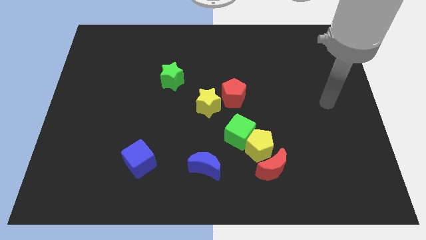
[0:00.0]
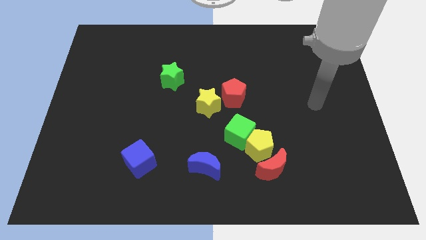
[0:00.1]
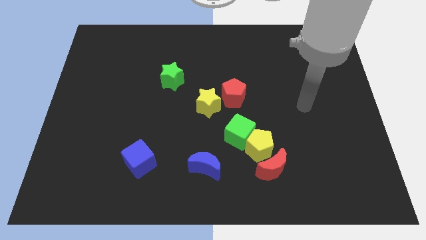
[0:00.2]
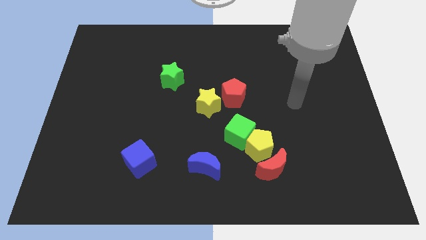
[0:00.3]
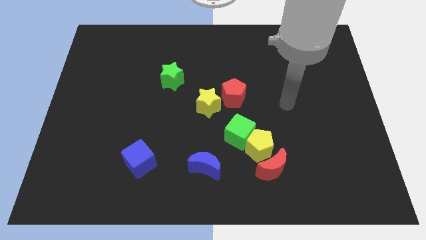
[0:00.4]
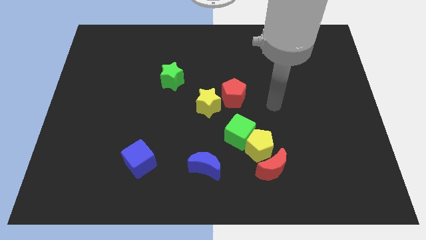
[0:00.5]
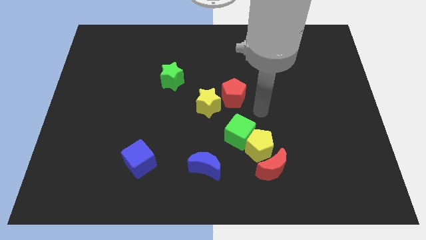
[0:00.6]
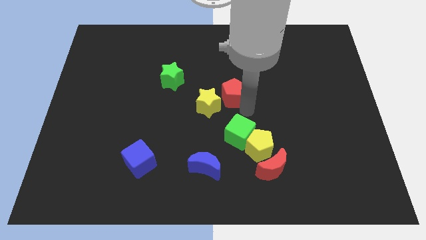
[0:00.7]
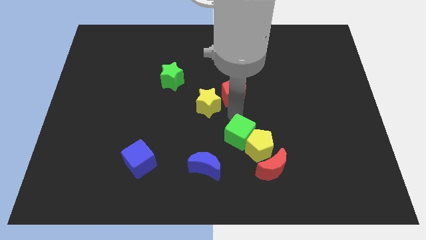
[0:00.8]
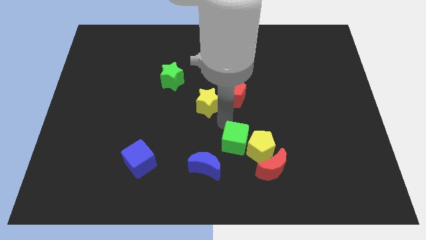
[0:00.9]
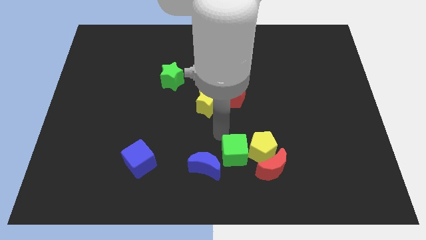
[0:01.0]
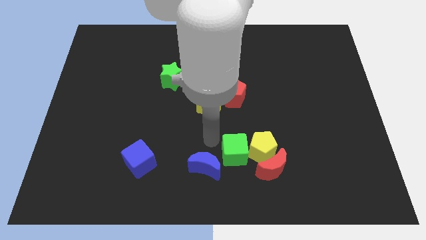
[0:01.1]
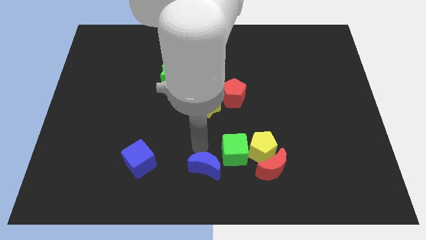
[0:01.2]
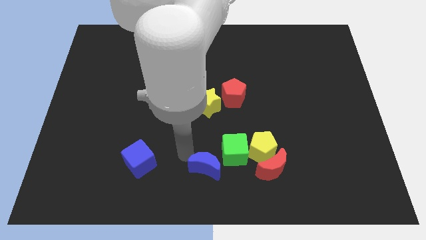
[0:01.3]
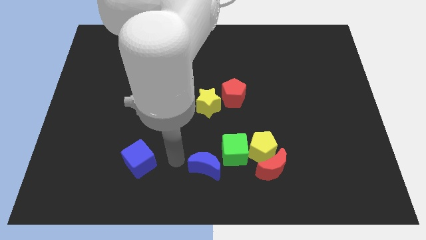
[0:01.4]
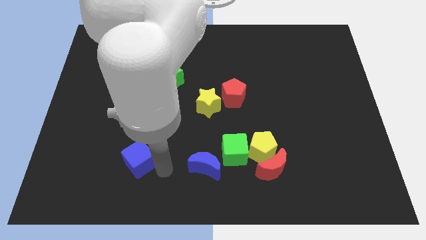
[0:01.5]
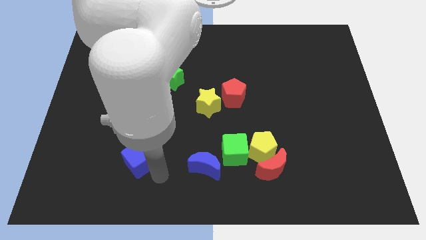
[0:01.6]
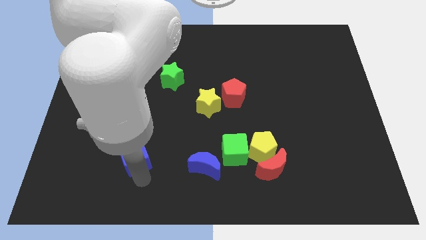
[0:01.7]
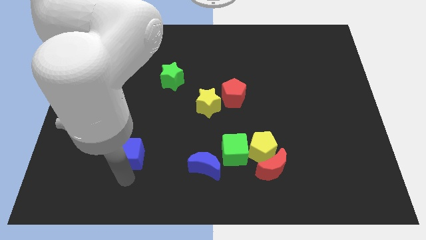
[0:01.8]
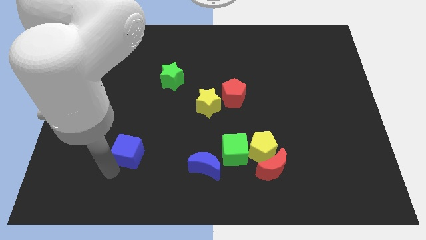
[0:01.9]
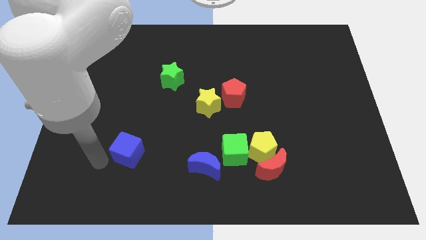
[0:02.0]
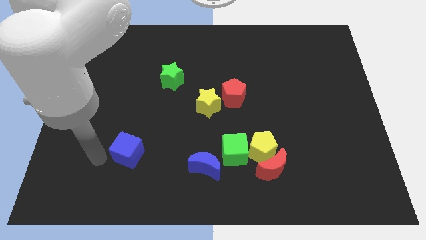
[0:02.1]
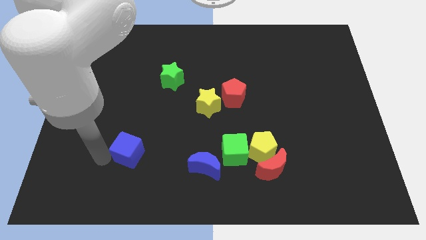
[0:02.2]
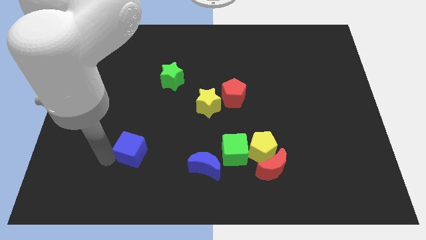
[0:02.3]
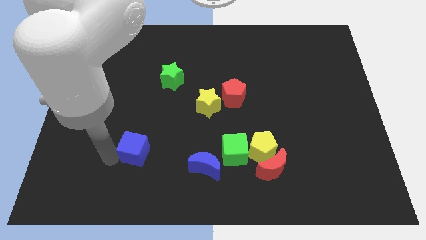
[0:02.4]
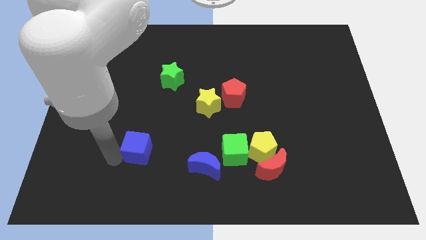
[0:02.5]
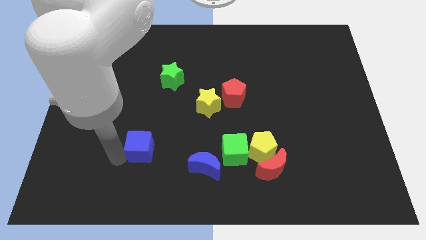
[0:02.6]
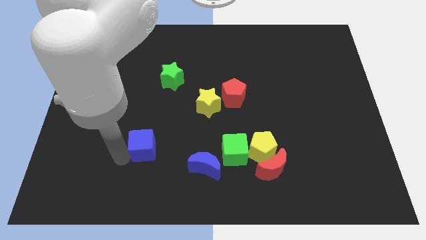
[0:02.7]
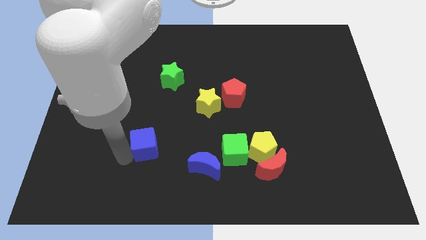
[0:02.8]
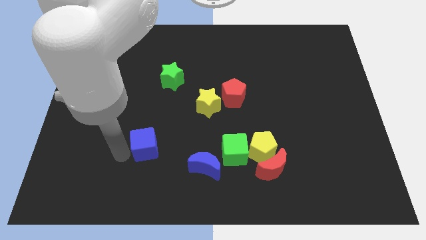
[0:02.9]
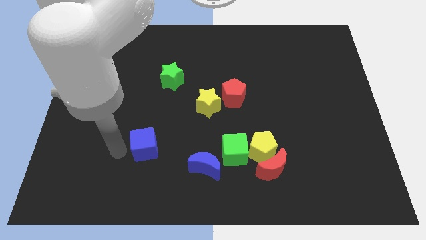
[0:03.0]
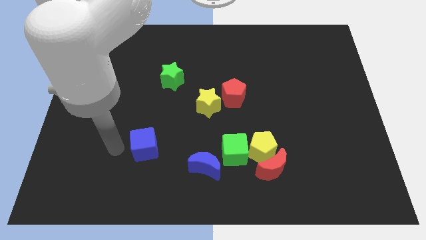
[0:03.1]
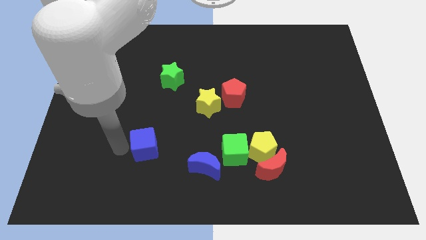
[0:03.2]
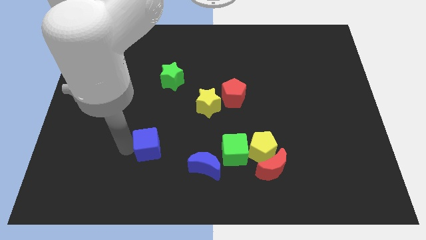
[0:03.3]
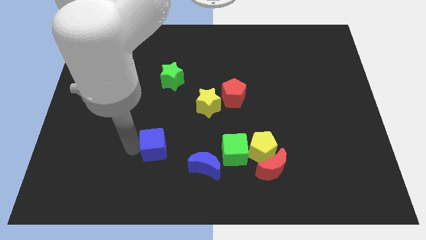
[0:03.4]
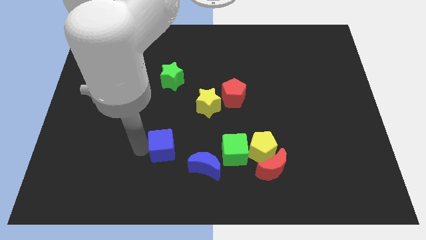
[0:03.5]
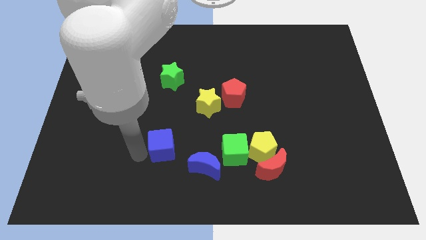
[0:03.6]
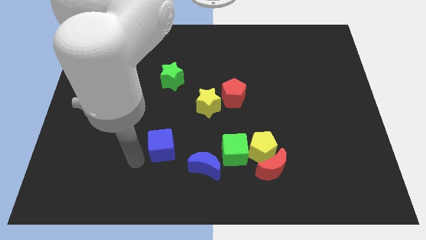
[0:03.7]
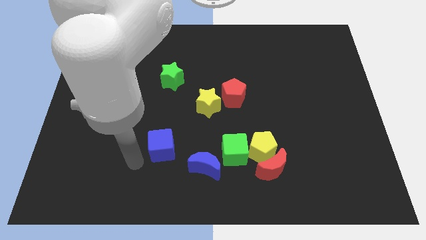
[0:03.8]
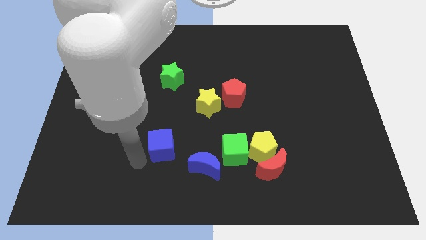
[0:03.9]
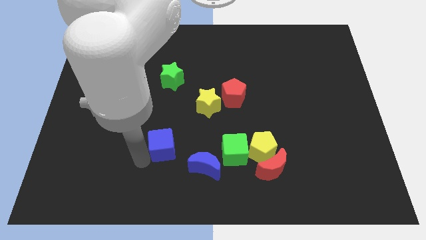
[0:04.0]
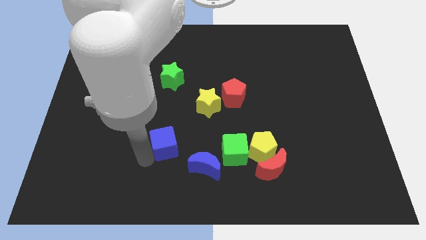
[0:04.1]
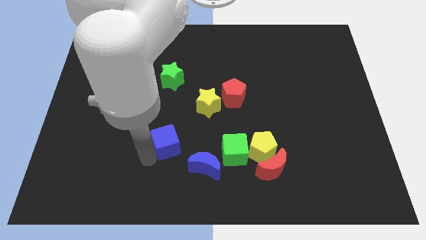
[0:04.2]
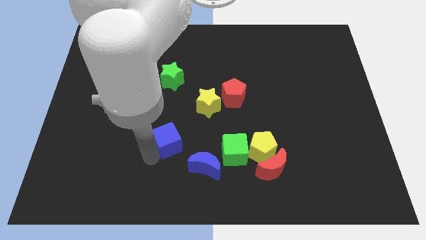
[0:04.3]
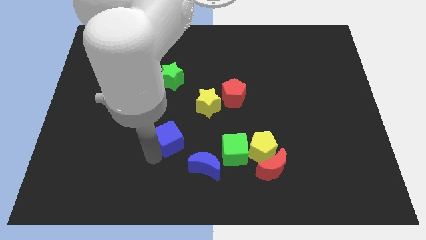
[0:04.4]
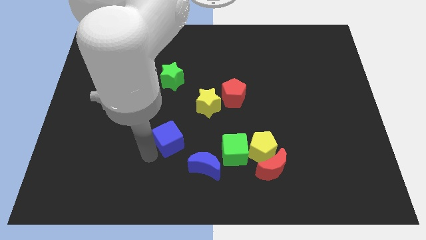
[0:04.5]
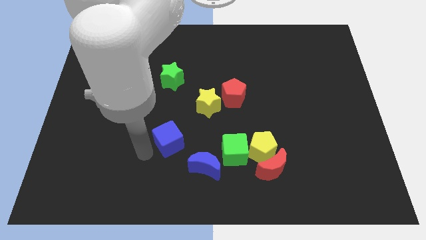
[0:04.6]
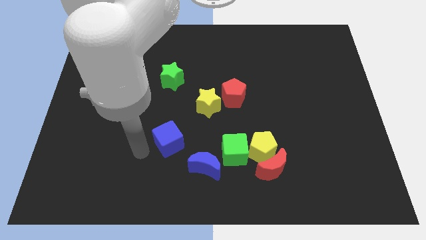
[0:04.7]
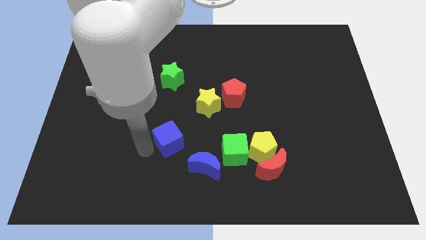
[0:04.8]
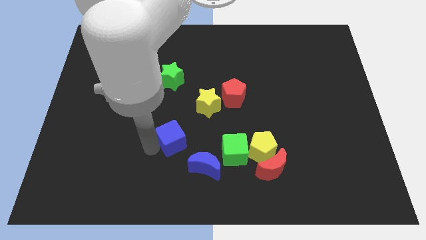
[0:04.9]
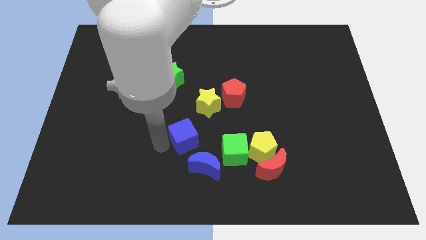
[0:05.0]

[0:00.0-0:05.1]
slide the blue cube above the blue moon

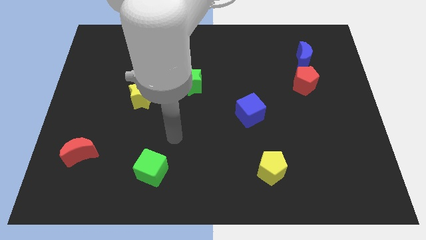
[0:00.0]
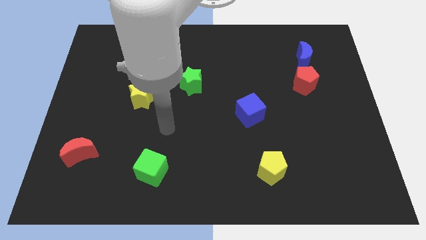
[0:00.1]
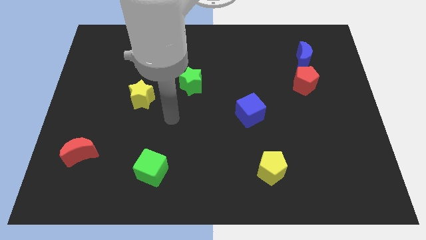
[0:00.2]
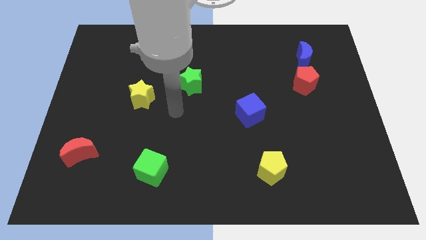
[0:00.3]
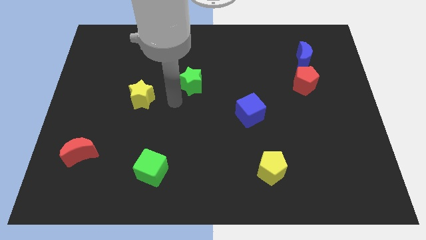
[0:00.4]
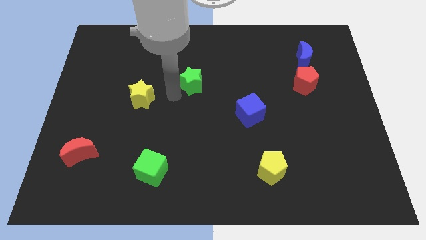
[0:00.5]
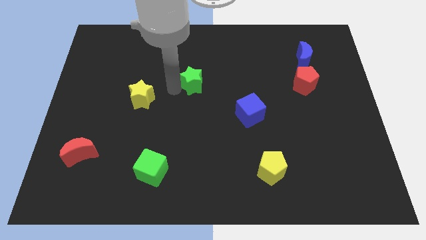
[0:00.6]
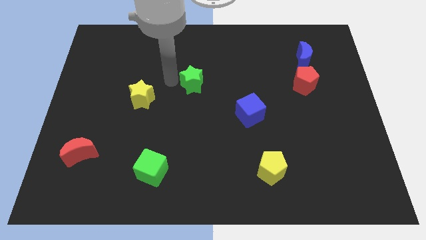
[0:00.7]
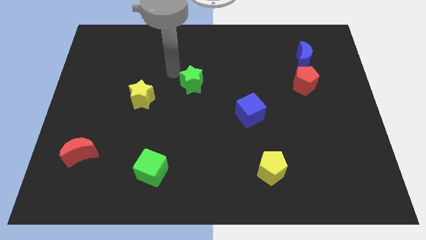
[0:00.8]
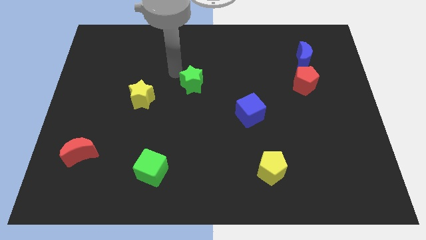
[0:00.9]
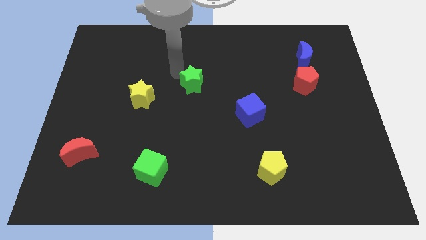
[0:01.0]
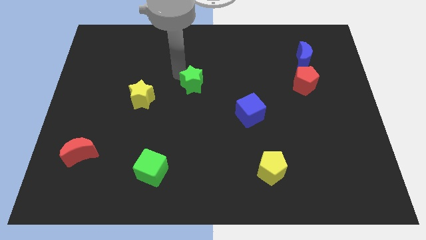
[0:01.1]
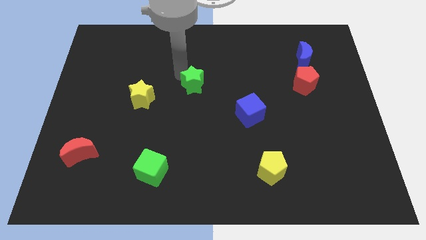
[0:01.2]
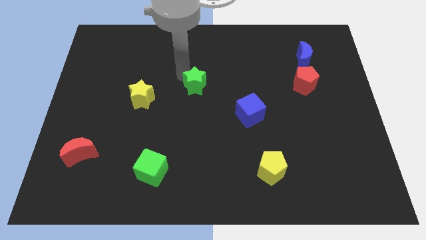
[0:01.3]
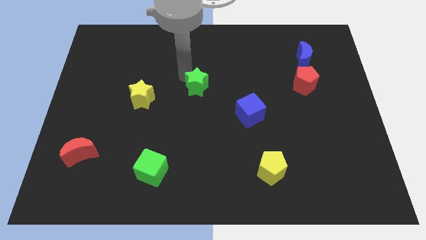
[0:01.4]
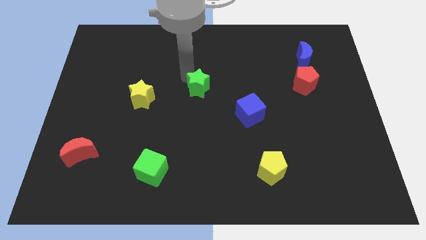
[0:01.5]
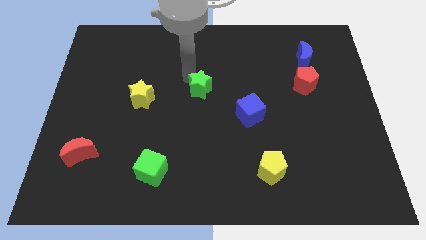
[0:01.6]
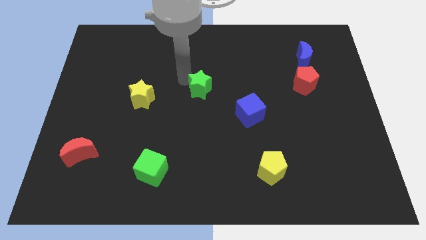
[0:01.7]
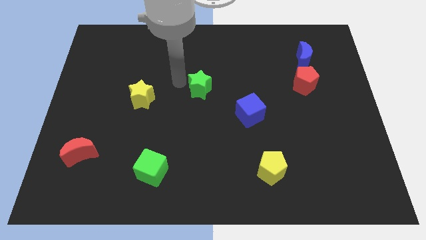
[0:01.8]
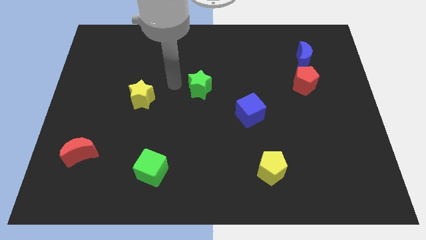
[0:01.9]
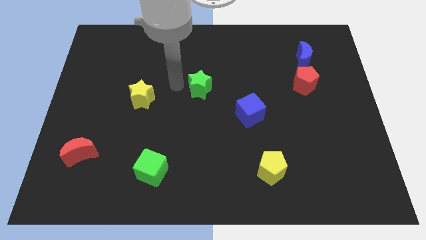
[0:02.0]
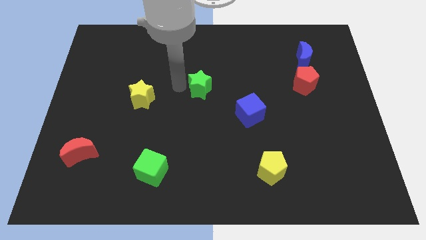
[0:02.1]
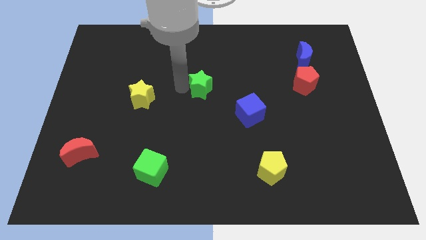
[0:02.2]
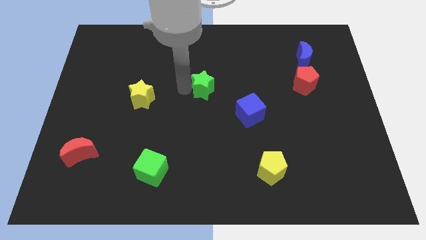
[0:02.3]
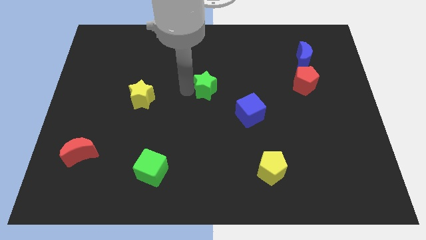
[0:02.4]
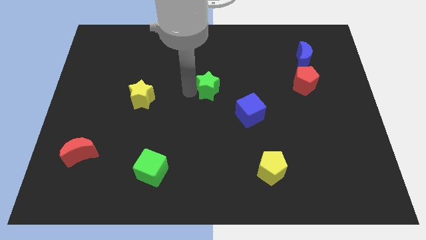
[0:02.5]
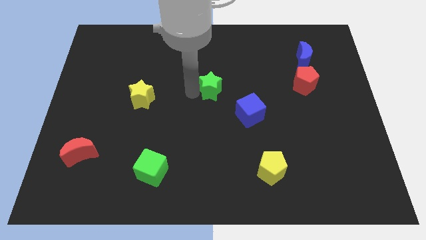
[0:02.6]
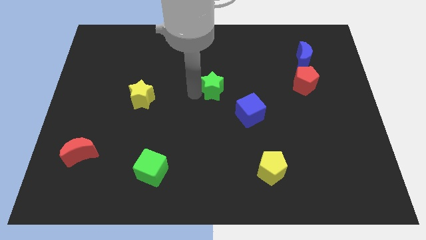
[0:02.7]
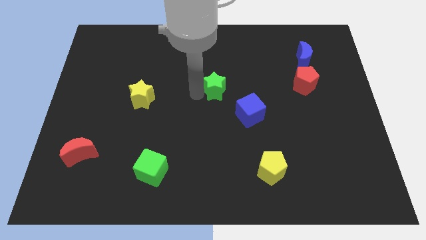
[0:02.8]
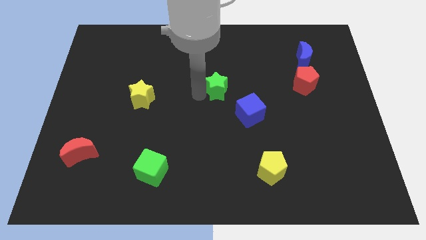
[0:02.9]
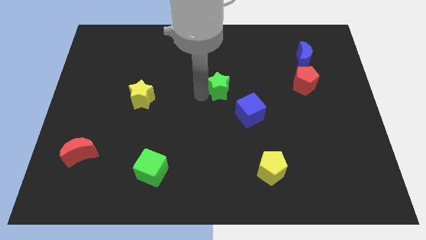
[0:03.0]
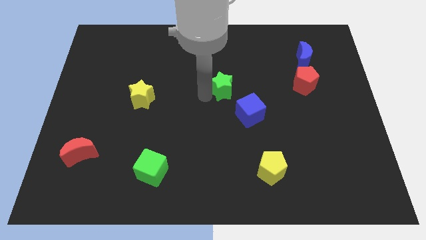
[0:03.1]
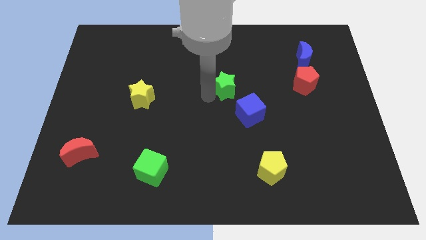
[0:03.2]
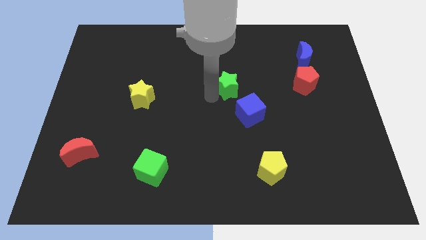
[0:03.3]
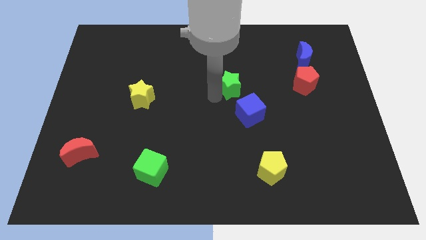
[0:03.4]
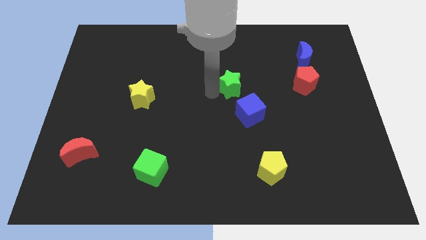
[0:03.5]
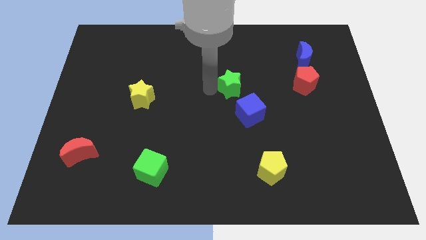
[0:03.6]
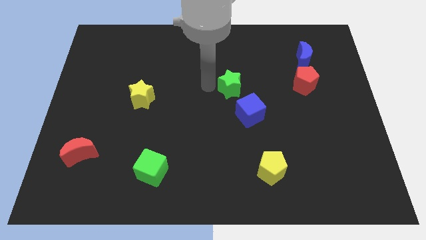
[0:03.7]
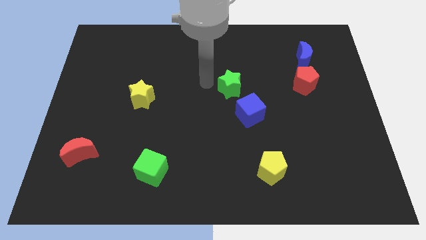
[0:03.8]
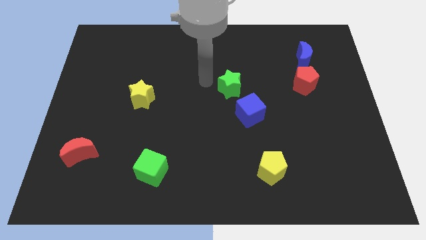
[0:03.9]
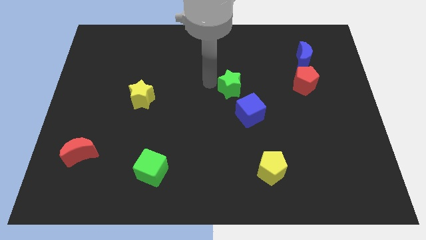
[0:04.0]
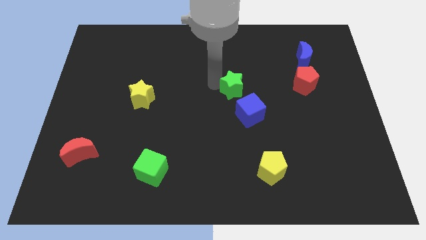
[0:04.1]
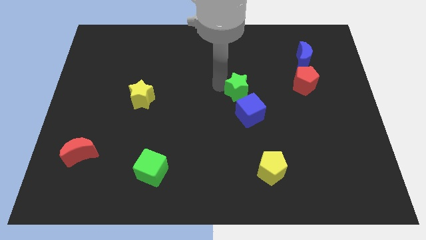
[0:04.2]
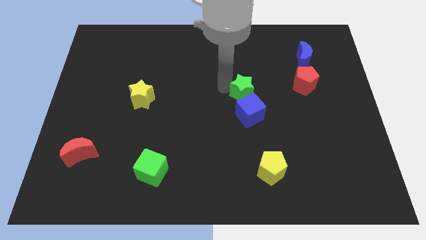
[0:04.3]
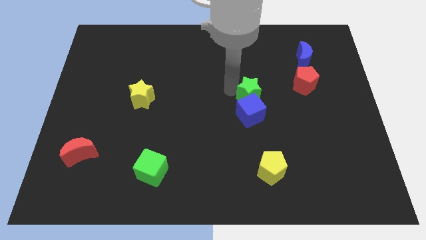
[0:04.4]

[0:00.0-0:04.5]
slide the green star to the top right of the blue cube
